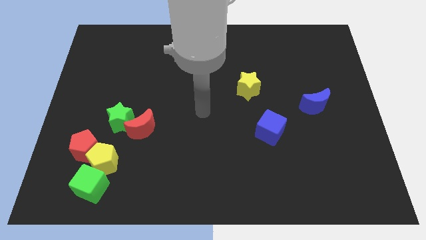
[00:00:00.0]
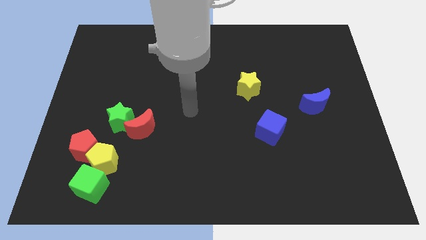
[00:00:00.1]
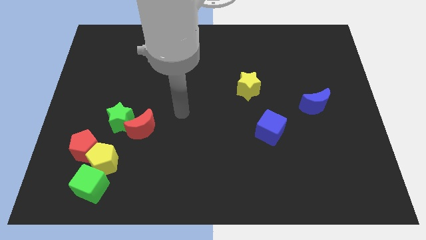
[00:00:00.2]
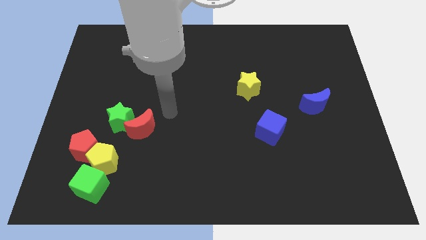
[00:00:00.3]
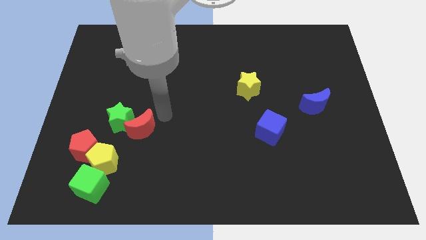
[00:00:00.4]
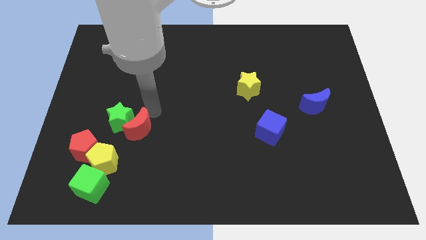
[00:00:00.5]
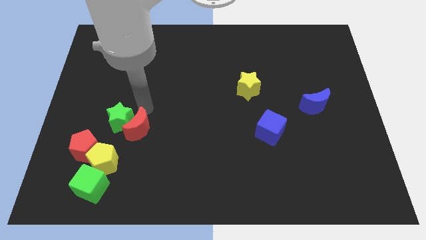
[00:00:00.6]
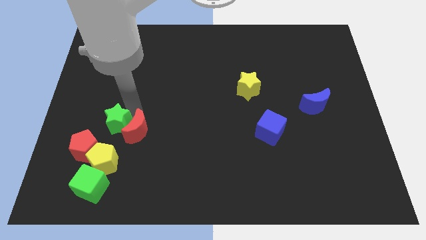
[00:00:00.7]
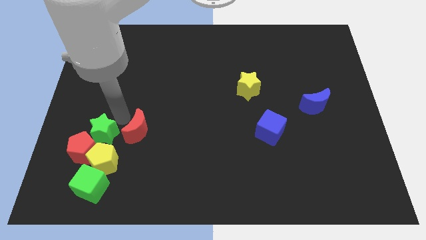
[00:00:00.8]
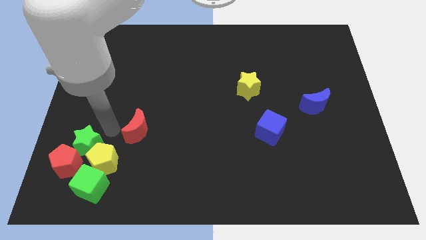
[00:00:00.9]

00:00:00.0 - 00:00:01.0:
pull the red moon apart from the green star

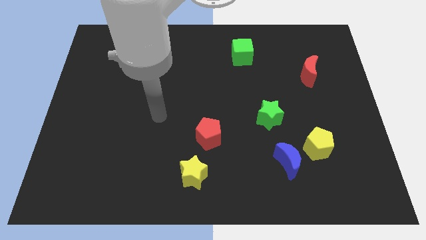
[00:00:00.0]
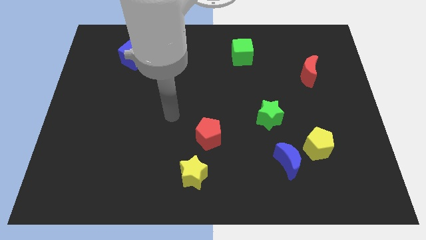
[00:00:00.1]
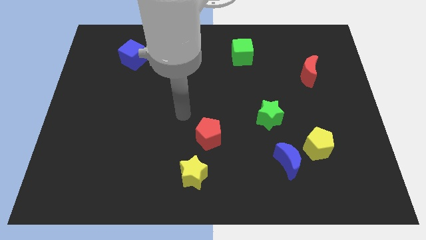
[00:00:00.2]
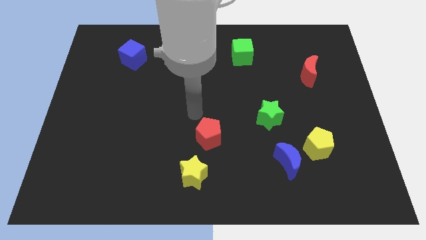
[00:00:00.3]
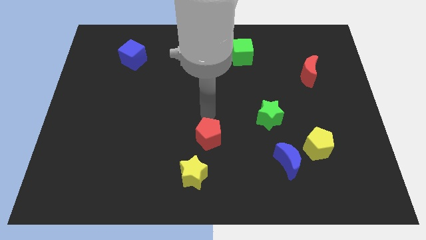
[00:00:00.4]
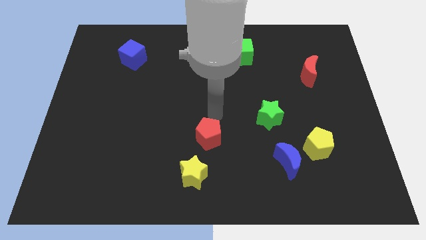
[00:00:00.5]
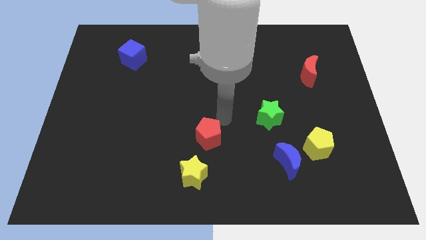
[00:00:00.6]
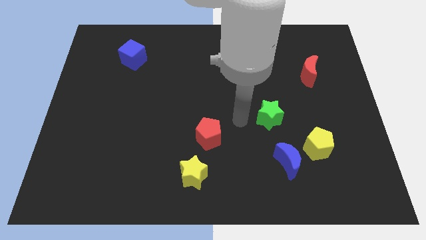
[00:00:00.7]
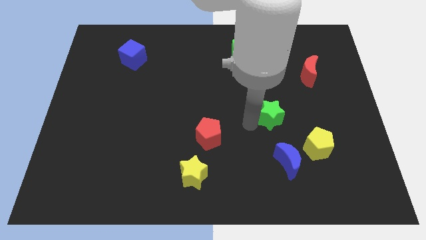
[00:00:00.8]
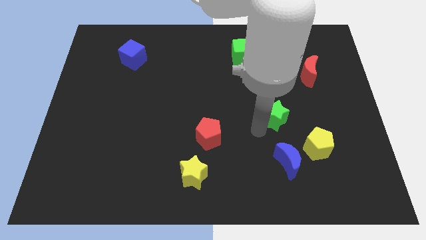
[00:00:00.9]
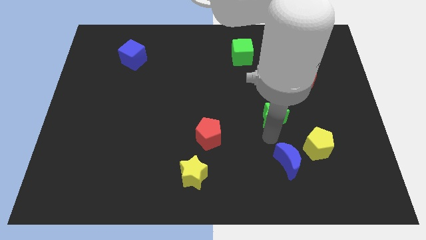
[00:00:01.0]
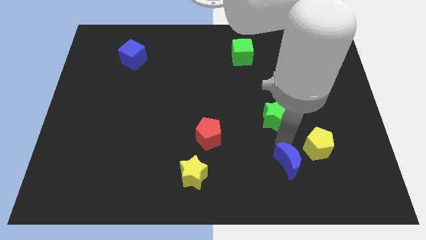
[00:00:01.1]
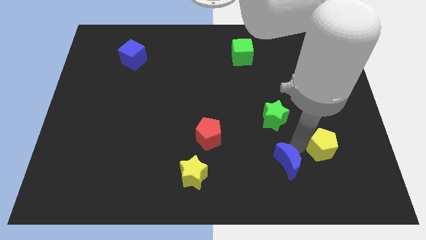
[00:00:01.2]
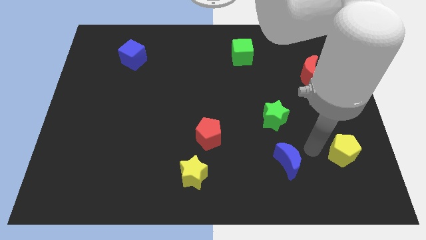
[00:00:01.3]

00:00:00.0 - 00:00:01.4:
move the blue moon away from the yellow pentagon

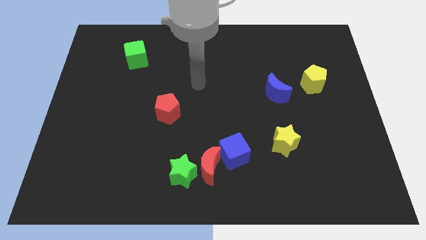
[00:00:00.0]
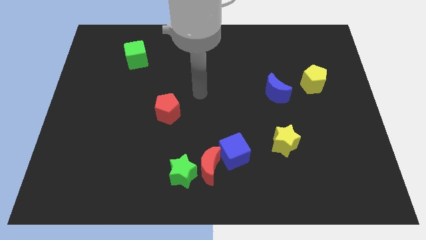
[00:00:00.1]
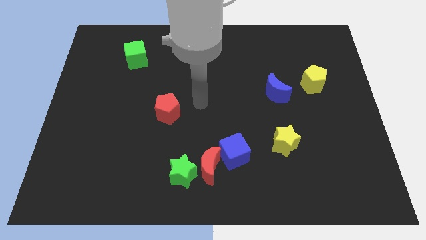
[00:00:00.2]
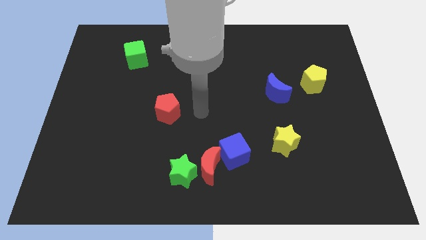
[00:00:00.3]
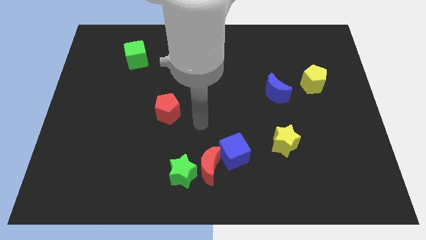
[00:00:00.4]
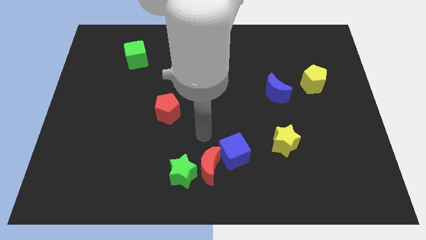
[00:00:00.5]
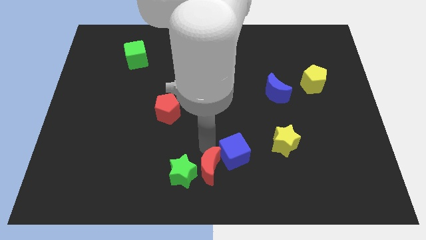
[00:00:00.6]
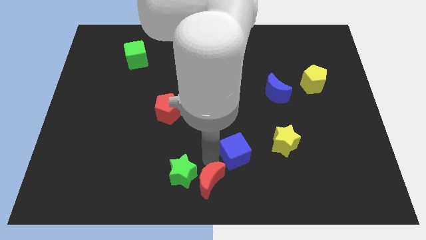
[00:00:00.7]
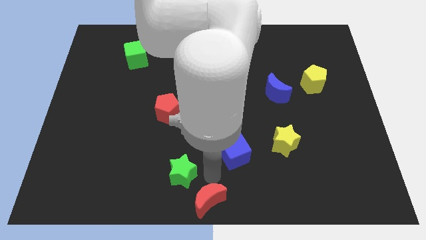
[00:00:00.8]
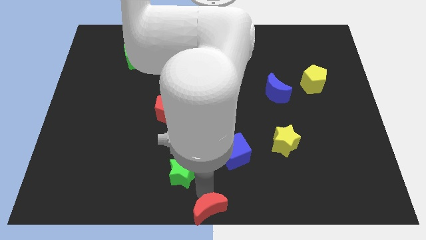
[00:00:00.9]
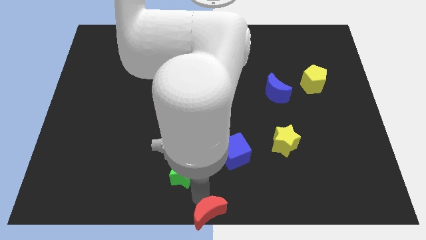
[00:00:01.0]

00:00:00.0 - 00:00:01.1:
move the green star away from the red moon

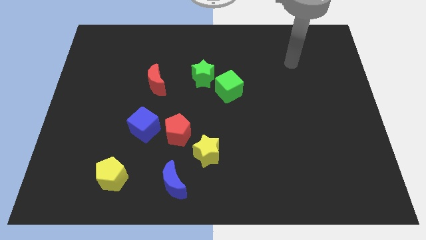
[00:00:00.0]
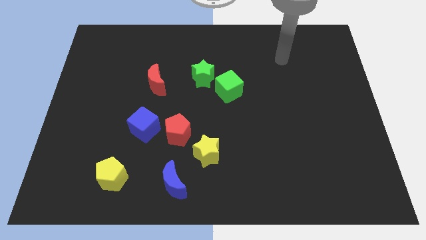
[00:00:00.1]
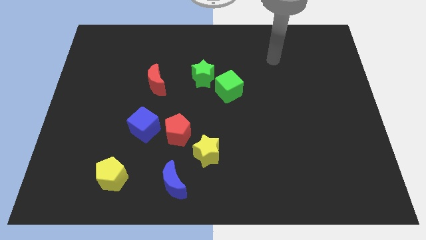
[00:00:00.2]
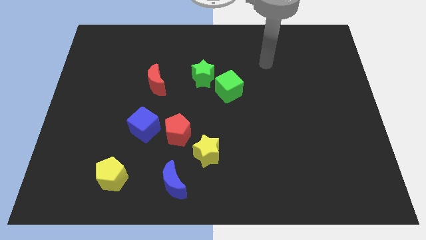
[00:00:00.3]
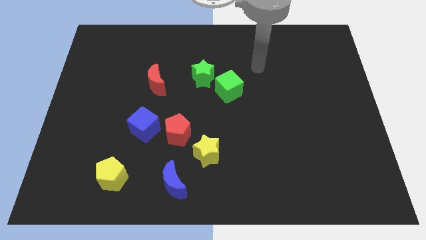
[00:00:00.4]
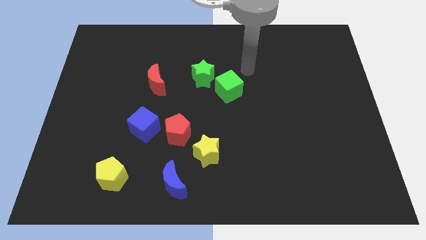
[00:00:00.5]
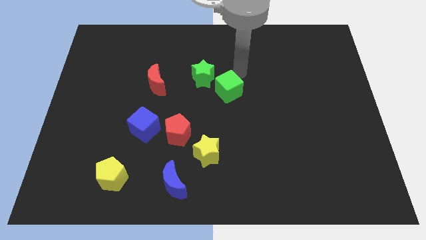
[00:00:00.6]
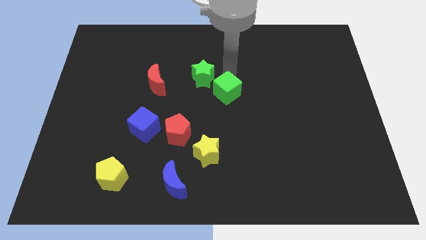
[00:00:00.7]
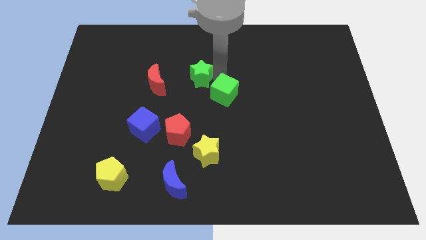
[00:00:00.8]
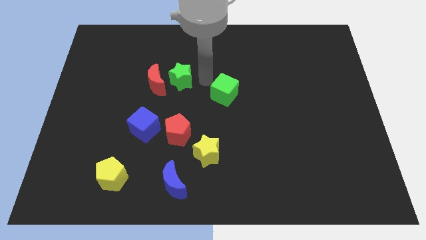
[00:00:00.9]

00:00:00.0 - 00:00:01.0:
move the green cube away from the green star

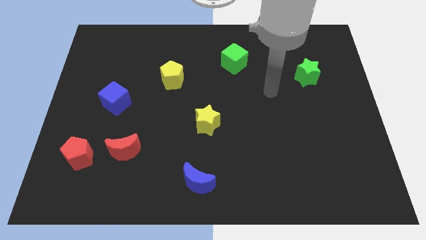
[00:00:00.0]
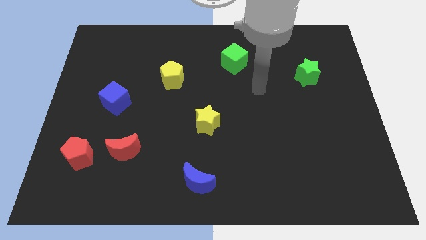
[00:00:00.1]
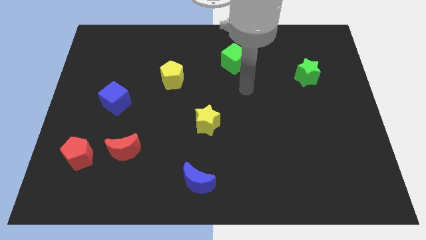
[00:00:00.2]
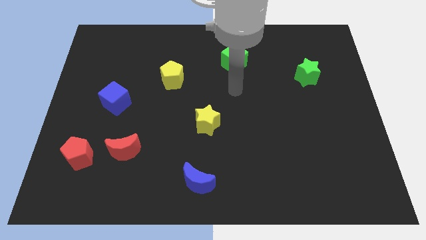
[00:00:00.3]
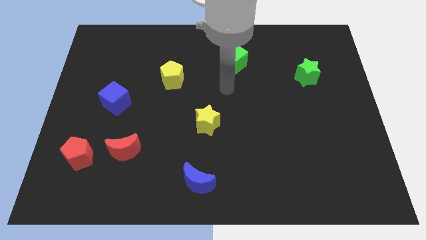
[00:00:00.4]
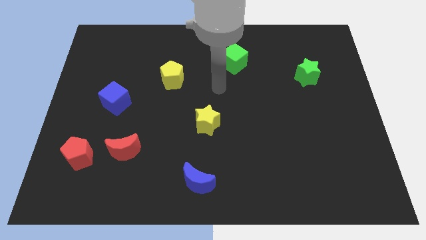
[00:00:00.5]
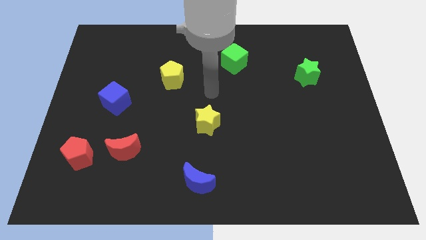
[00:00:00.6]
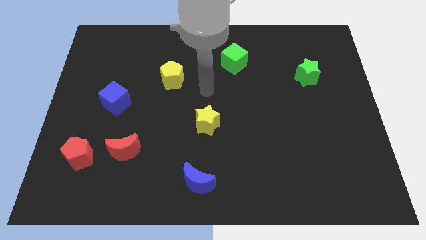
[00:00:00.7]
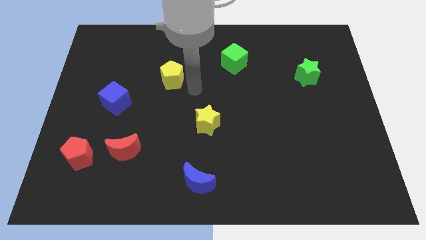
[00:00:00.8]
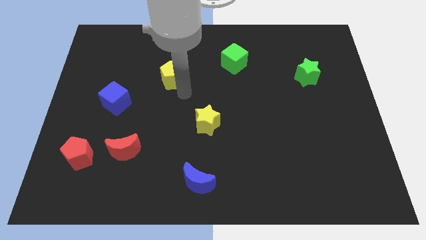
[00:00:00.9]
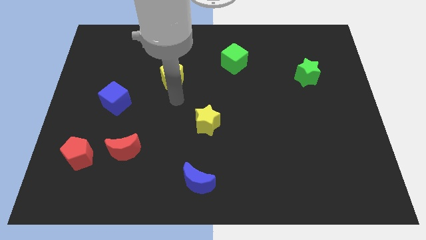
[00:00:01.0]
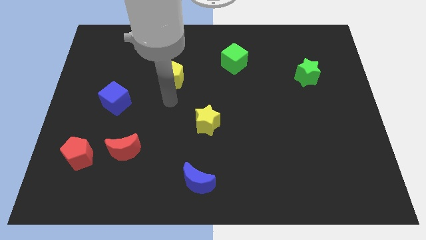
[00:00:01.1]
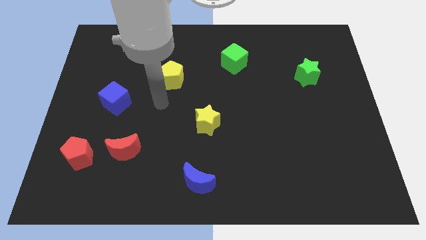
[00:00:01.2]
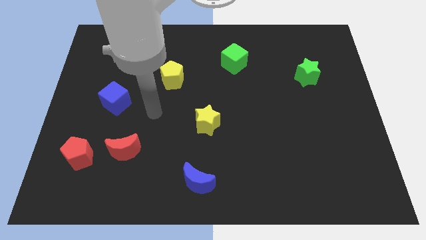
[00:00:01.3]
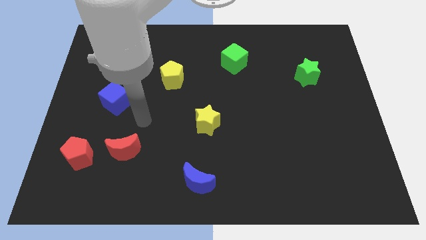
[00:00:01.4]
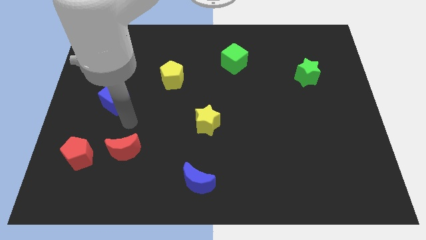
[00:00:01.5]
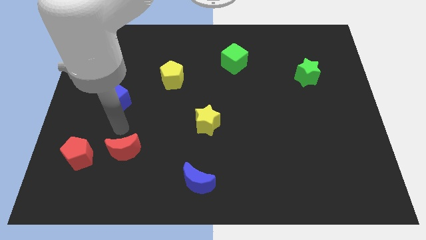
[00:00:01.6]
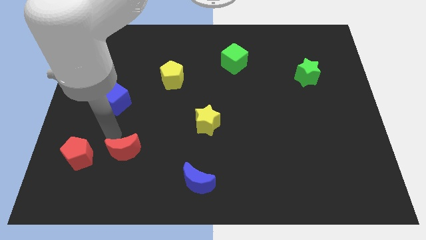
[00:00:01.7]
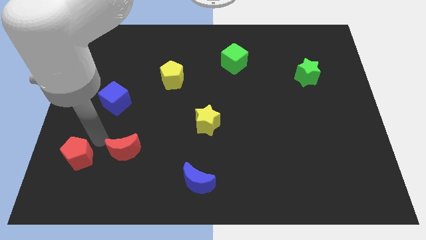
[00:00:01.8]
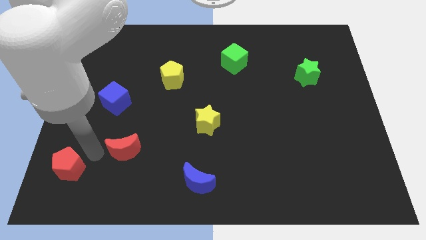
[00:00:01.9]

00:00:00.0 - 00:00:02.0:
separate the red moon from the red pentagon

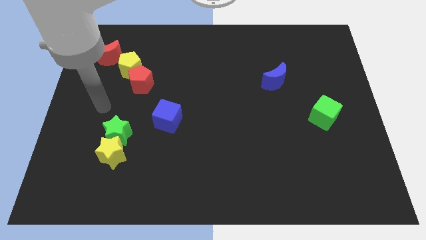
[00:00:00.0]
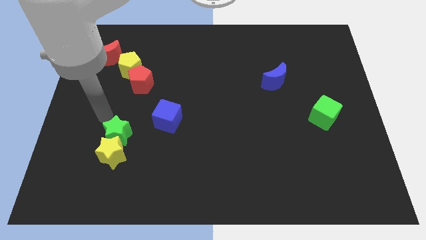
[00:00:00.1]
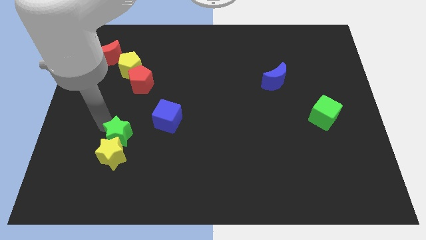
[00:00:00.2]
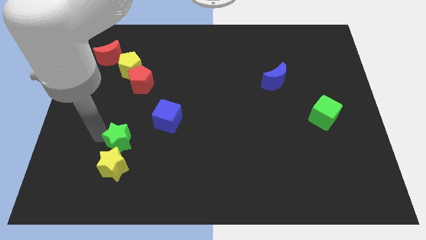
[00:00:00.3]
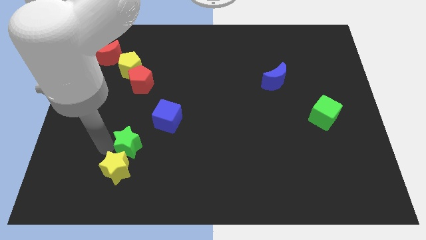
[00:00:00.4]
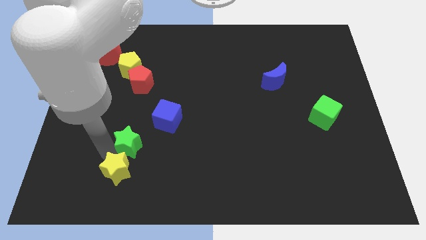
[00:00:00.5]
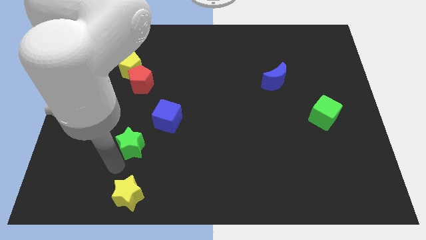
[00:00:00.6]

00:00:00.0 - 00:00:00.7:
separate the green star from the yellow star

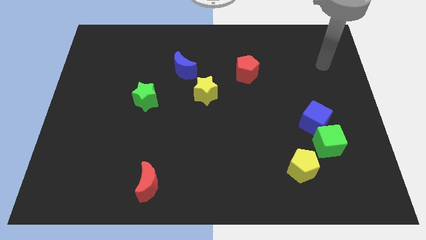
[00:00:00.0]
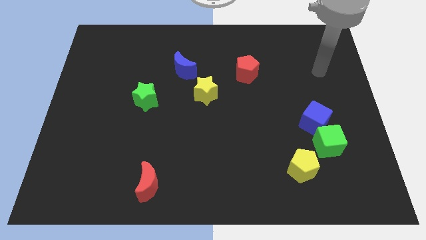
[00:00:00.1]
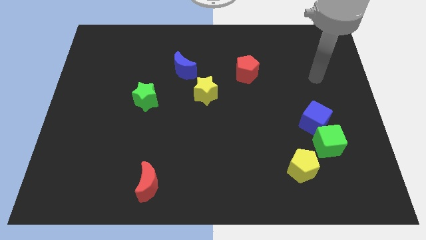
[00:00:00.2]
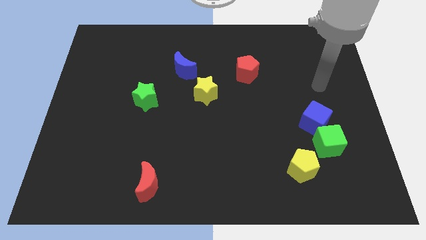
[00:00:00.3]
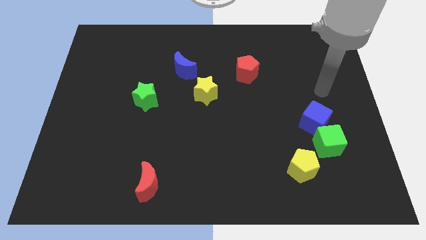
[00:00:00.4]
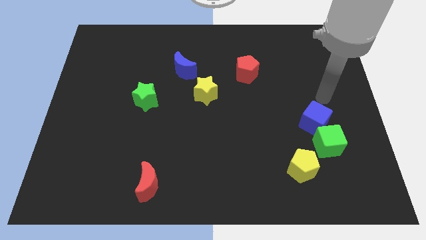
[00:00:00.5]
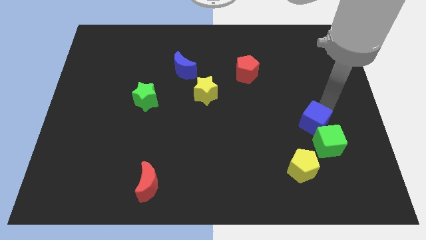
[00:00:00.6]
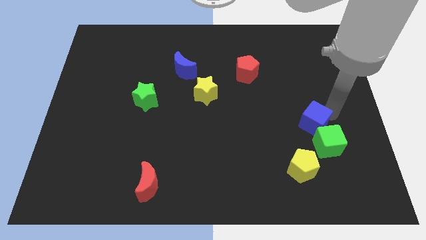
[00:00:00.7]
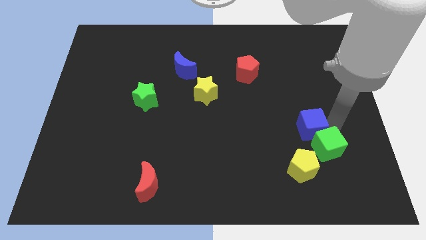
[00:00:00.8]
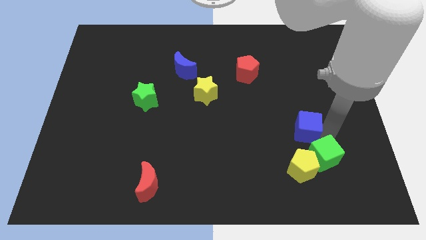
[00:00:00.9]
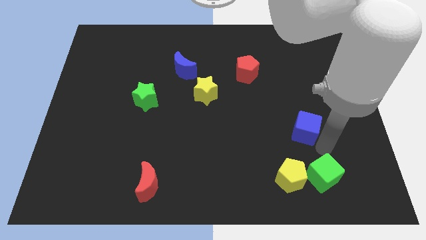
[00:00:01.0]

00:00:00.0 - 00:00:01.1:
move the blue cube away from the green cube

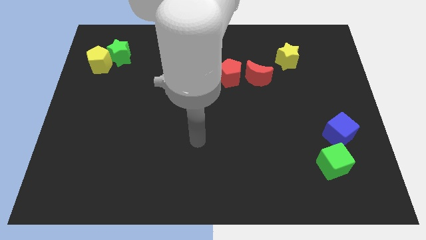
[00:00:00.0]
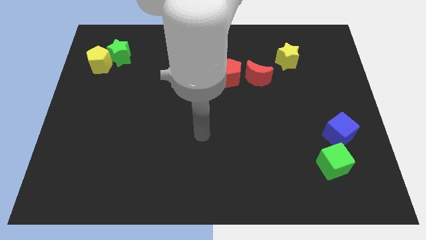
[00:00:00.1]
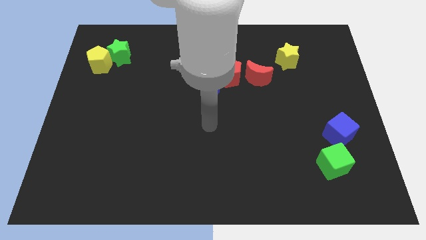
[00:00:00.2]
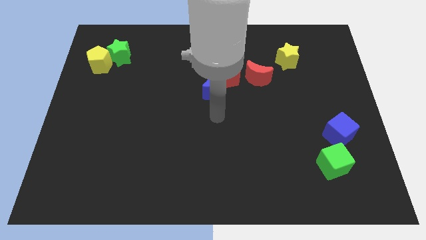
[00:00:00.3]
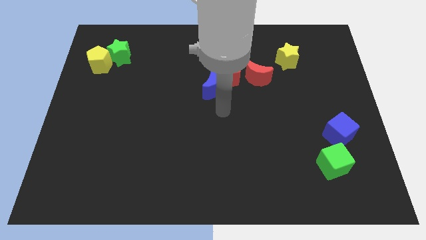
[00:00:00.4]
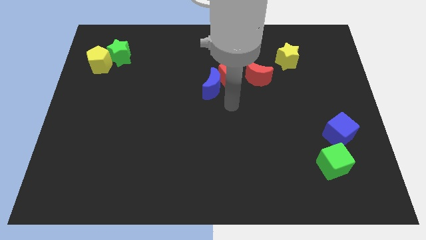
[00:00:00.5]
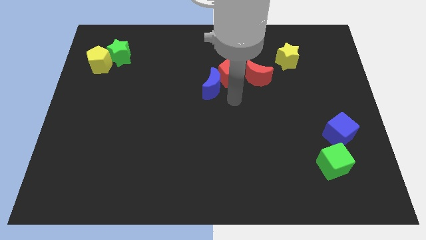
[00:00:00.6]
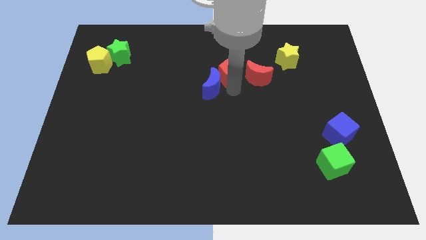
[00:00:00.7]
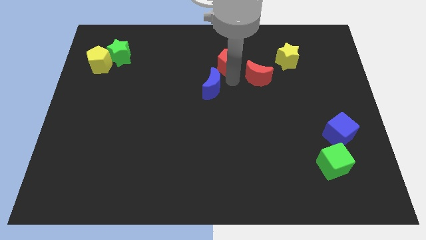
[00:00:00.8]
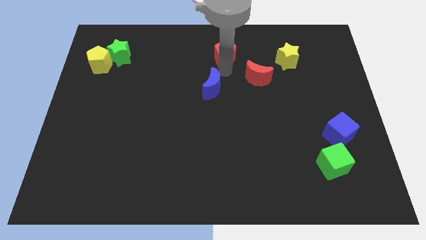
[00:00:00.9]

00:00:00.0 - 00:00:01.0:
separate the blue moon from the red pentagon
